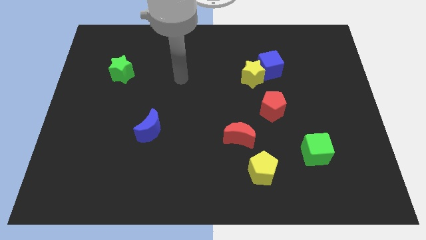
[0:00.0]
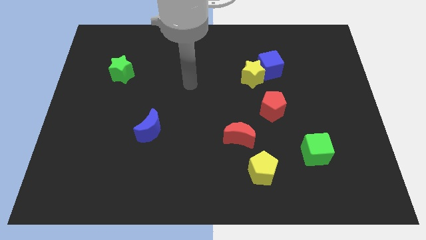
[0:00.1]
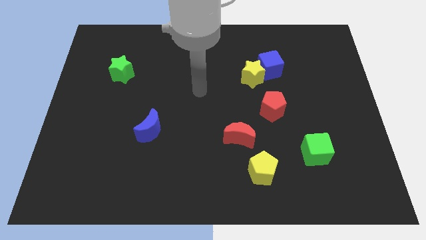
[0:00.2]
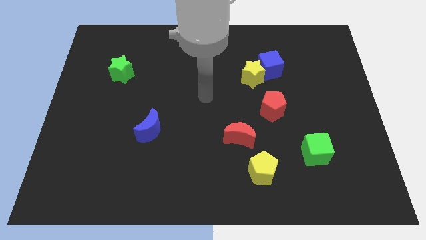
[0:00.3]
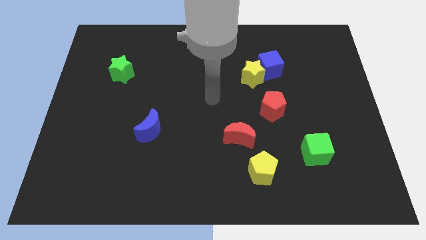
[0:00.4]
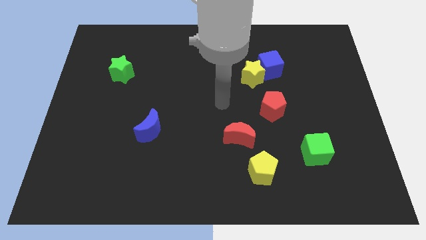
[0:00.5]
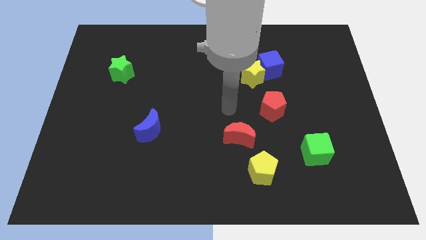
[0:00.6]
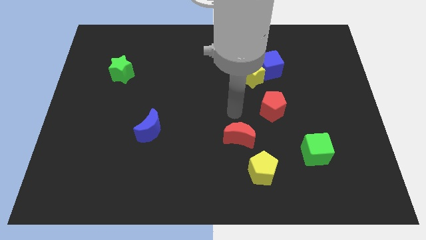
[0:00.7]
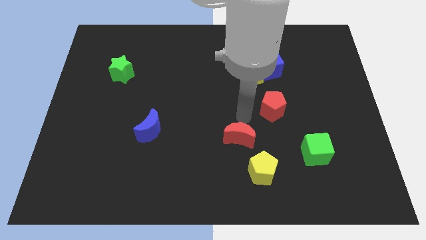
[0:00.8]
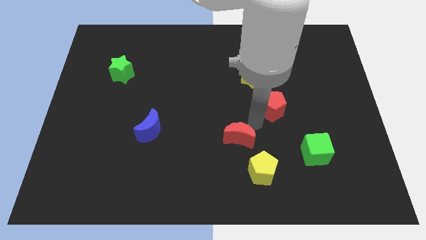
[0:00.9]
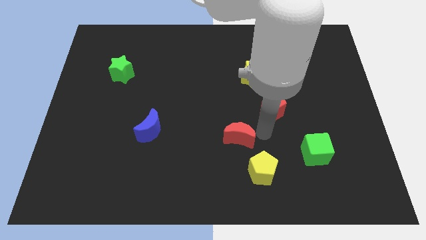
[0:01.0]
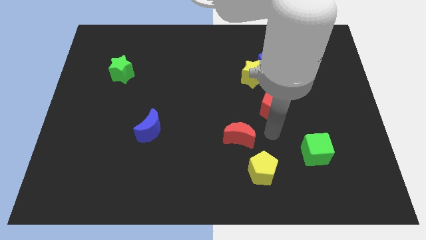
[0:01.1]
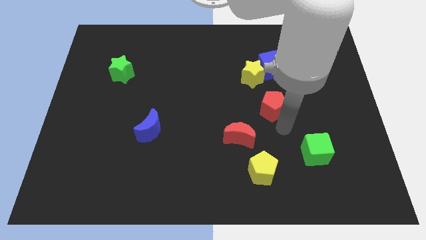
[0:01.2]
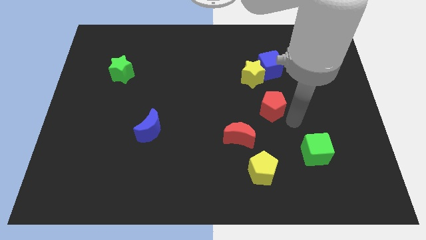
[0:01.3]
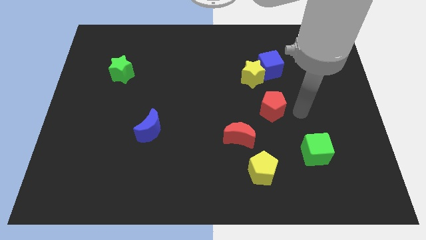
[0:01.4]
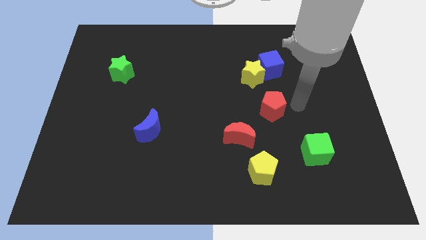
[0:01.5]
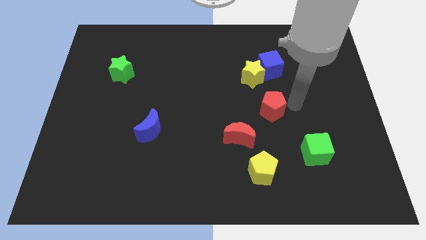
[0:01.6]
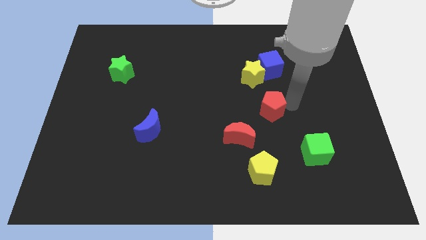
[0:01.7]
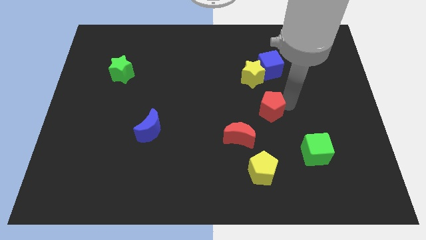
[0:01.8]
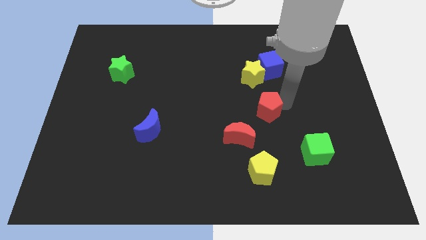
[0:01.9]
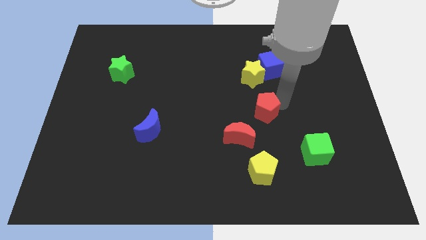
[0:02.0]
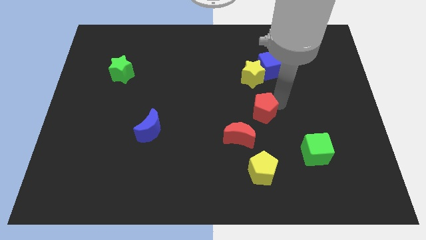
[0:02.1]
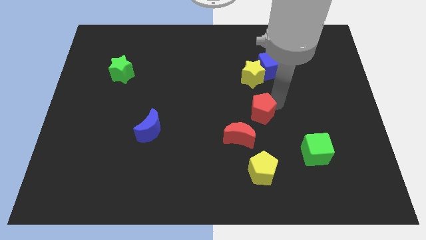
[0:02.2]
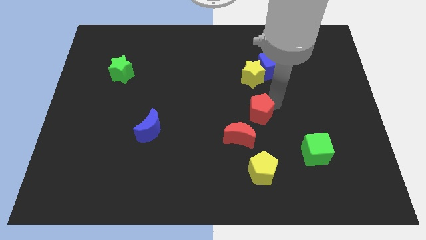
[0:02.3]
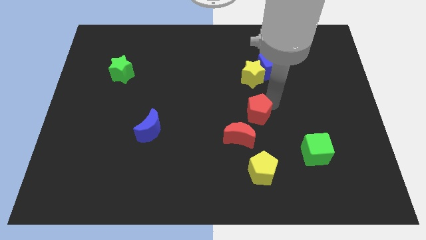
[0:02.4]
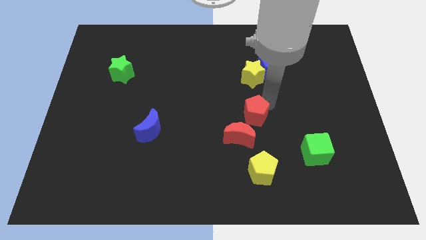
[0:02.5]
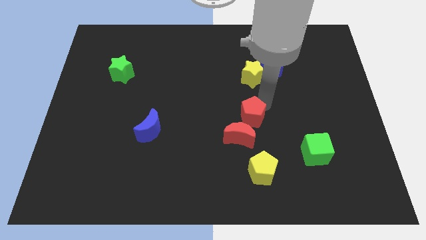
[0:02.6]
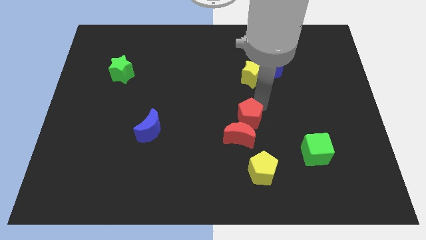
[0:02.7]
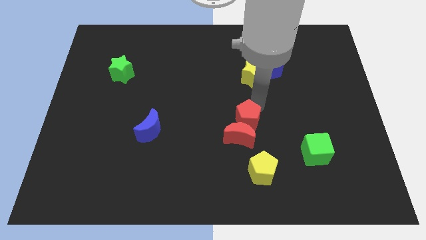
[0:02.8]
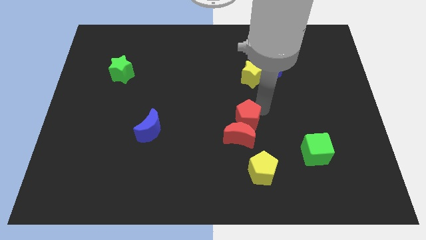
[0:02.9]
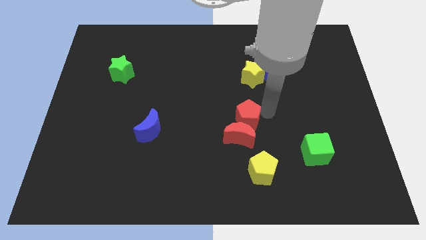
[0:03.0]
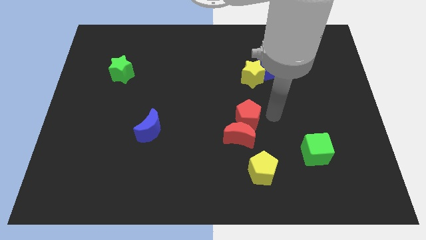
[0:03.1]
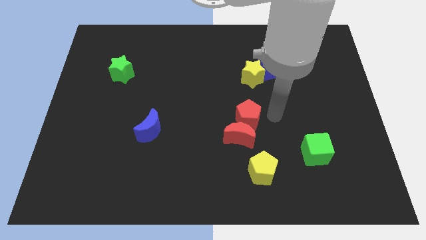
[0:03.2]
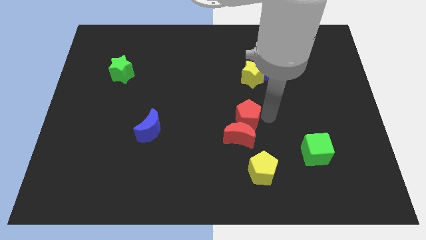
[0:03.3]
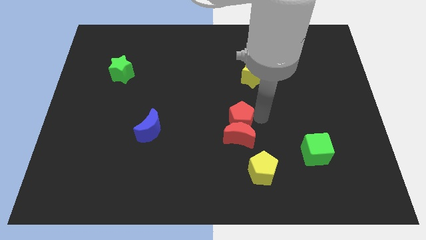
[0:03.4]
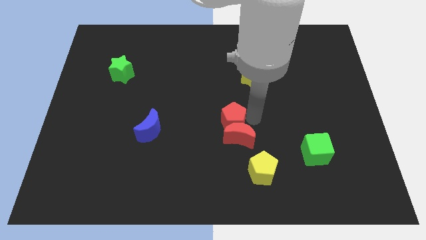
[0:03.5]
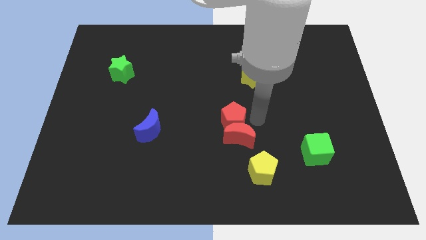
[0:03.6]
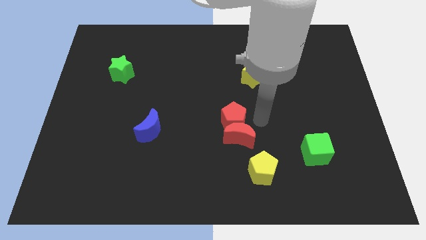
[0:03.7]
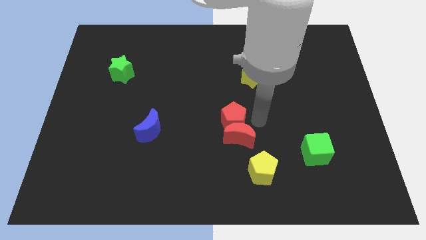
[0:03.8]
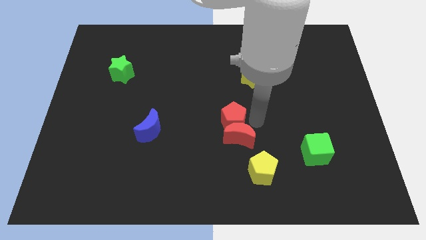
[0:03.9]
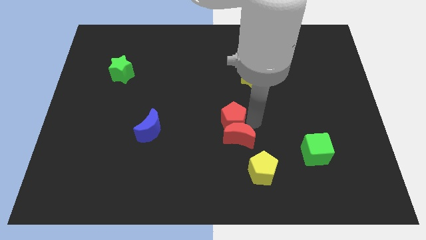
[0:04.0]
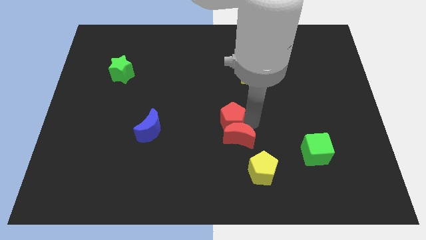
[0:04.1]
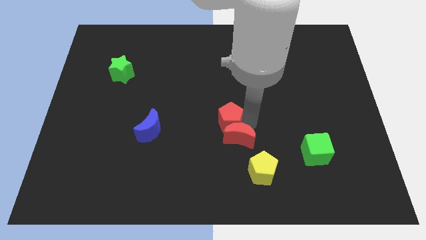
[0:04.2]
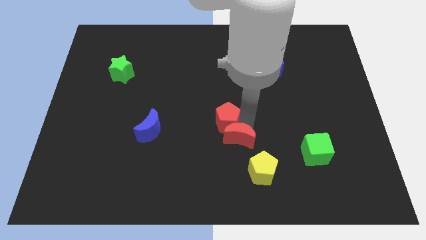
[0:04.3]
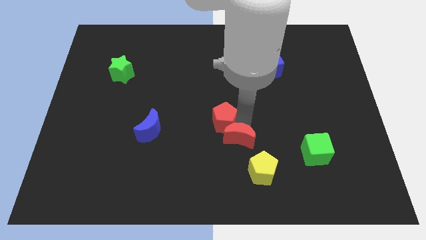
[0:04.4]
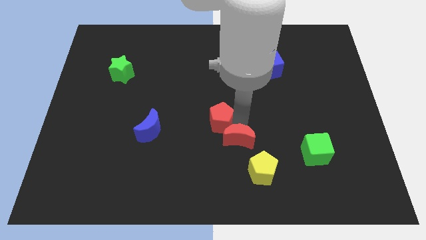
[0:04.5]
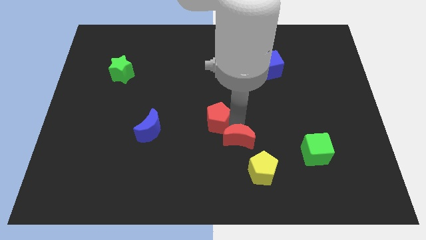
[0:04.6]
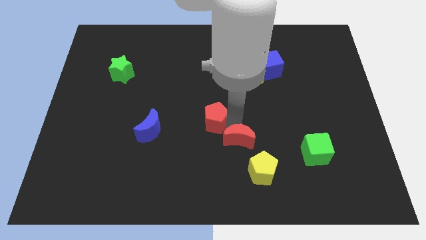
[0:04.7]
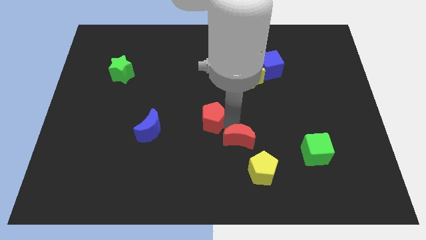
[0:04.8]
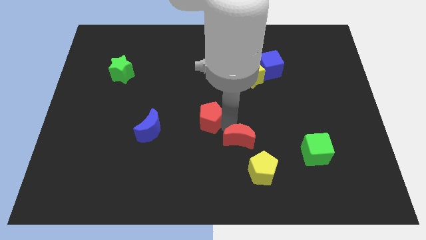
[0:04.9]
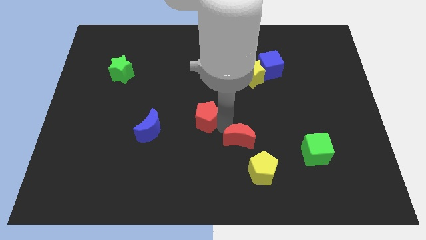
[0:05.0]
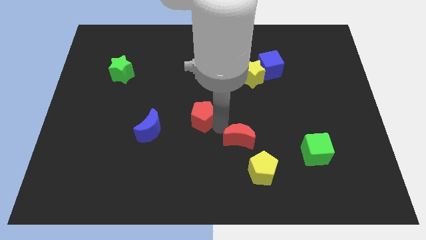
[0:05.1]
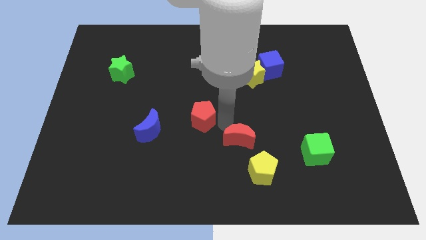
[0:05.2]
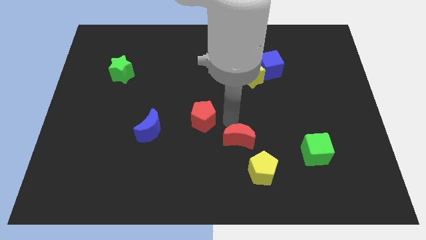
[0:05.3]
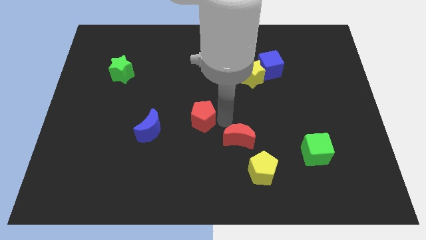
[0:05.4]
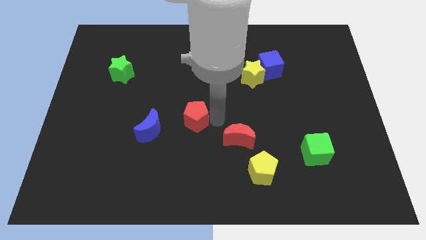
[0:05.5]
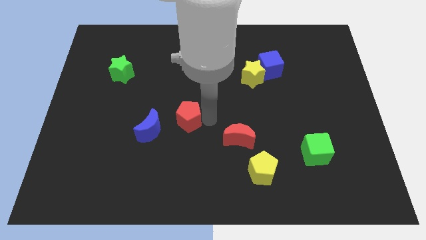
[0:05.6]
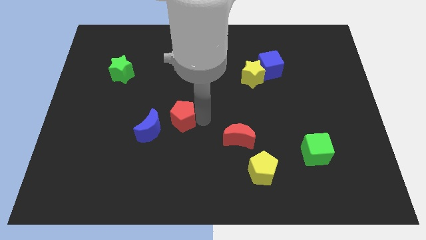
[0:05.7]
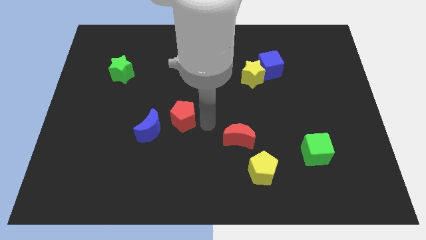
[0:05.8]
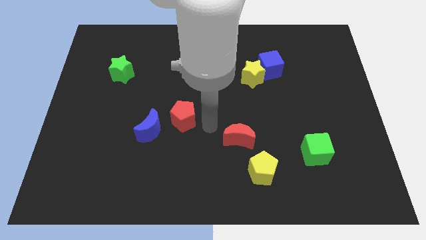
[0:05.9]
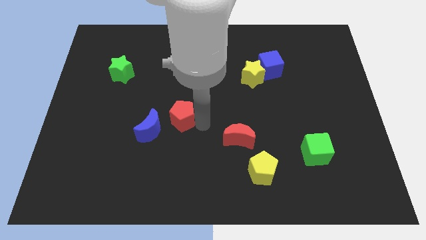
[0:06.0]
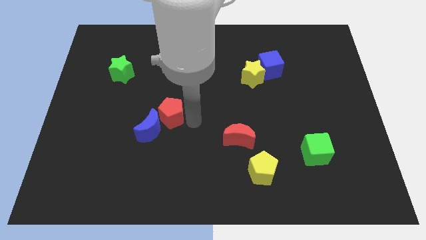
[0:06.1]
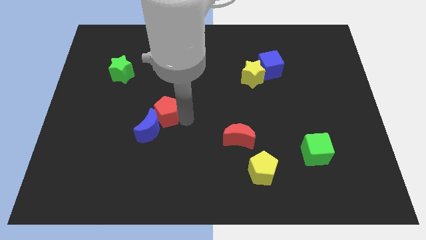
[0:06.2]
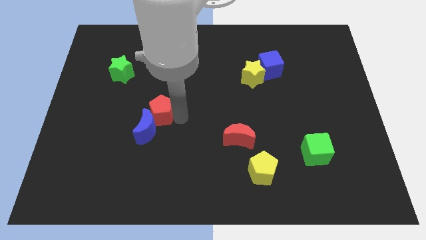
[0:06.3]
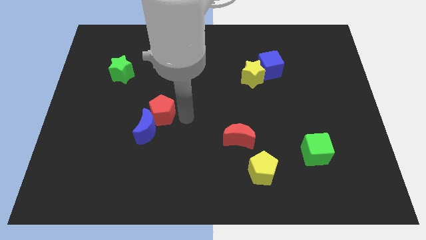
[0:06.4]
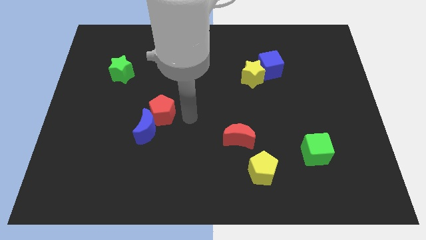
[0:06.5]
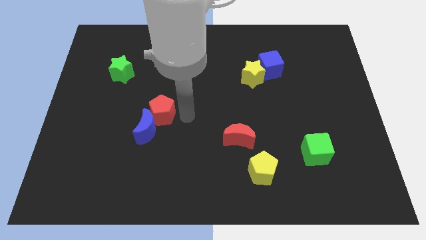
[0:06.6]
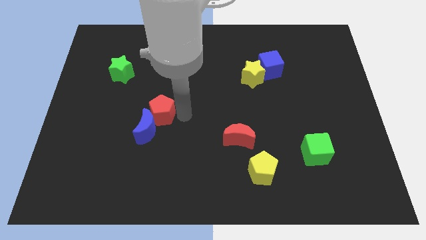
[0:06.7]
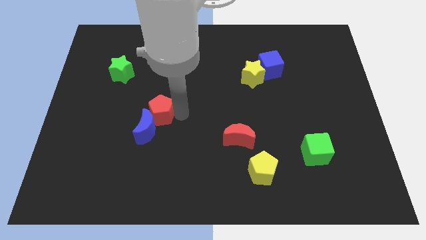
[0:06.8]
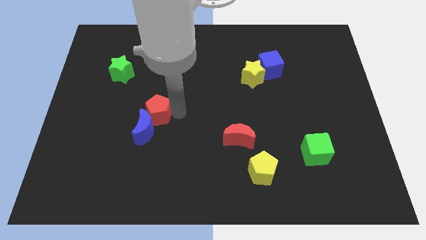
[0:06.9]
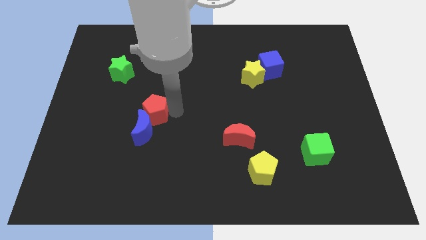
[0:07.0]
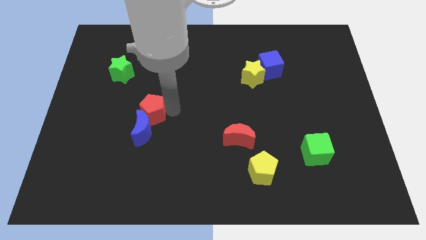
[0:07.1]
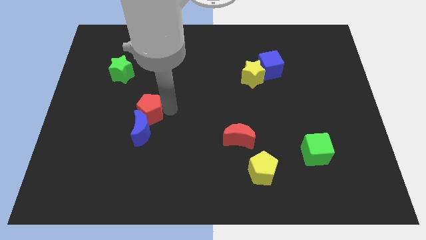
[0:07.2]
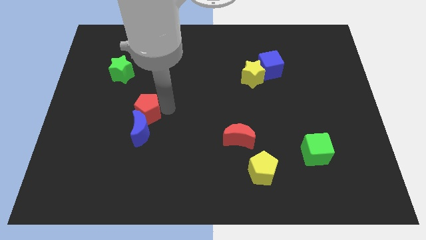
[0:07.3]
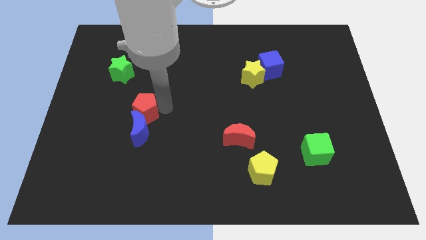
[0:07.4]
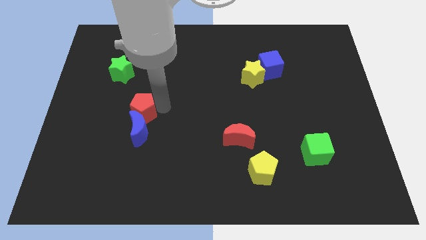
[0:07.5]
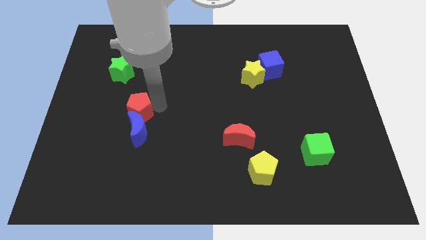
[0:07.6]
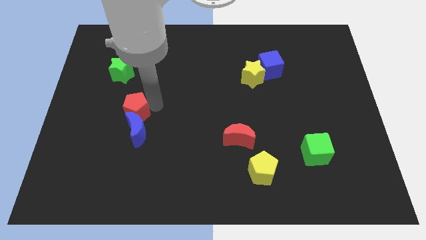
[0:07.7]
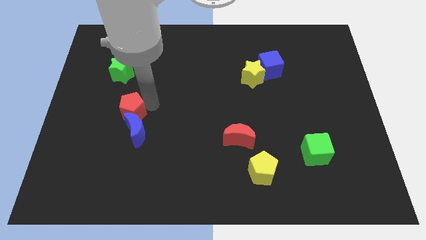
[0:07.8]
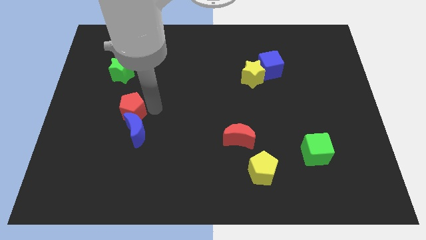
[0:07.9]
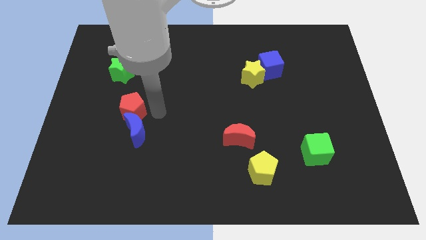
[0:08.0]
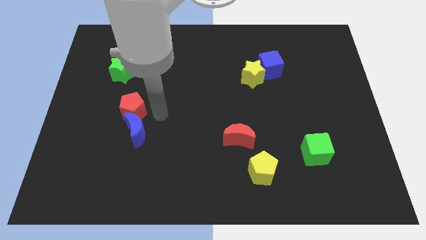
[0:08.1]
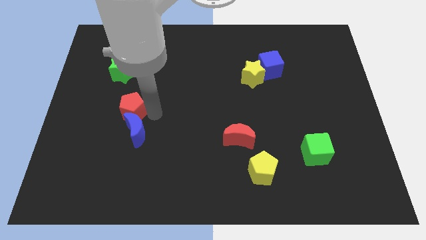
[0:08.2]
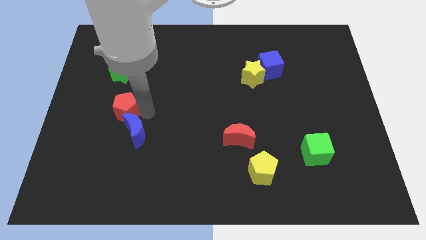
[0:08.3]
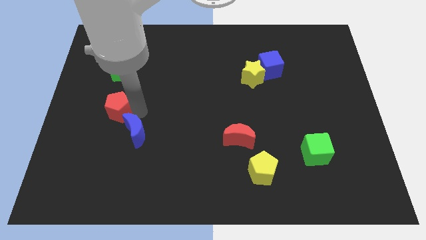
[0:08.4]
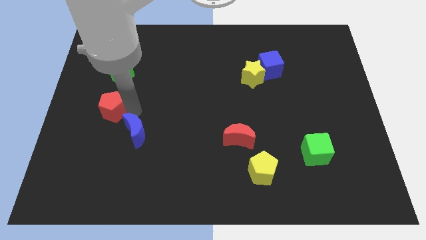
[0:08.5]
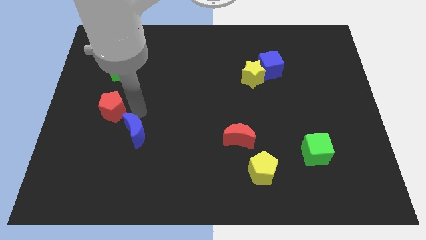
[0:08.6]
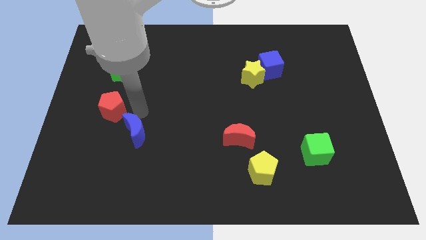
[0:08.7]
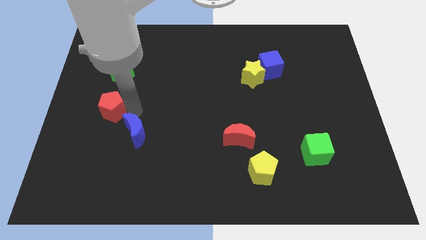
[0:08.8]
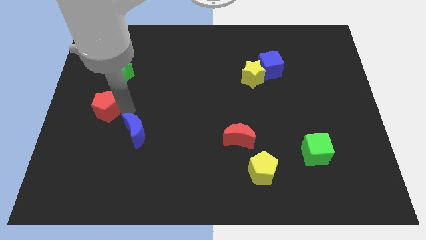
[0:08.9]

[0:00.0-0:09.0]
move the red pentagon to the center left
